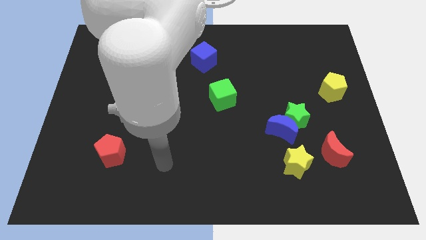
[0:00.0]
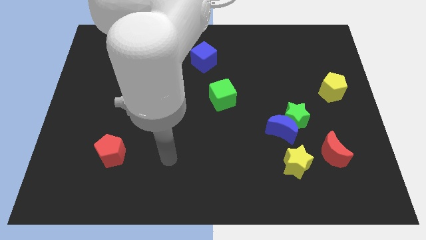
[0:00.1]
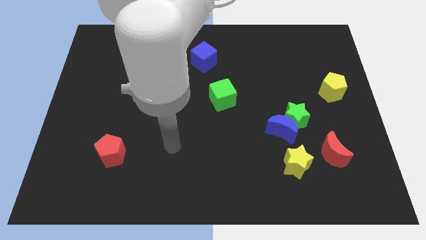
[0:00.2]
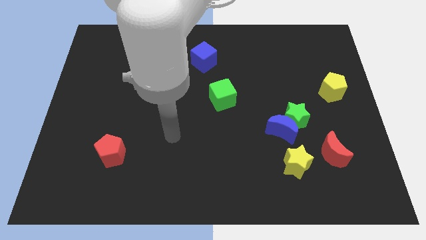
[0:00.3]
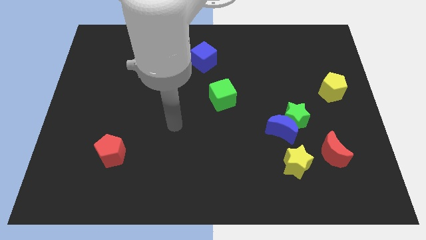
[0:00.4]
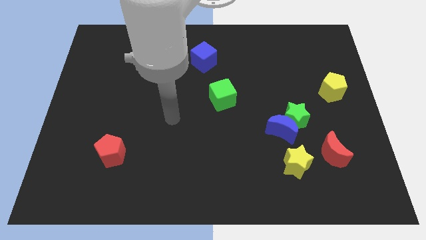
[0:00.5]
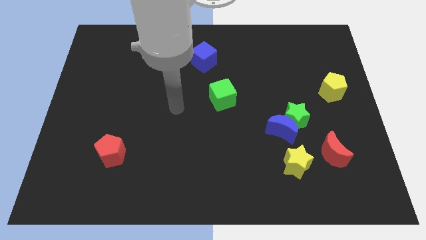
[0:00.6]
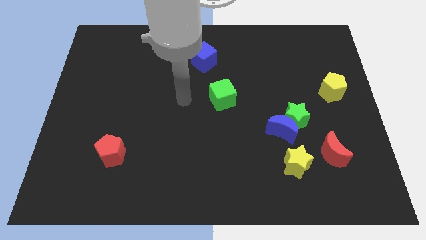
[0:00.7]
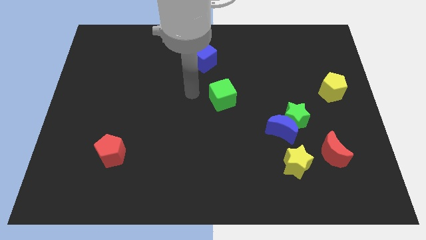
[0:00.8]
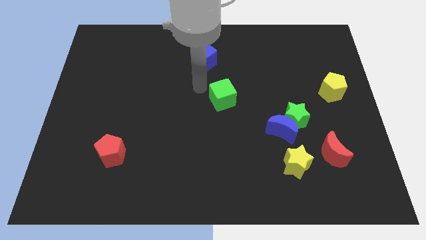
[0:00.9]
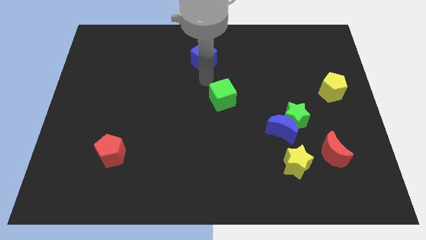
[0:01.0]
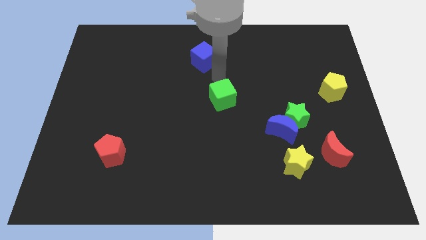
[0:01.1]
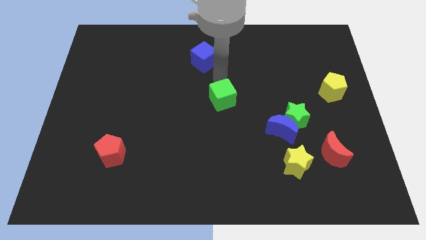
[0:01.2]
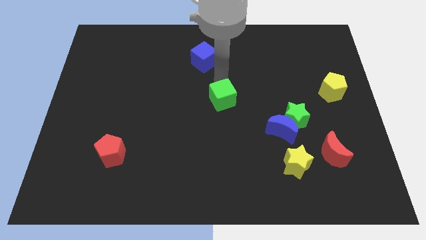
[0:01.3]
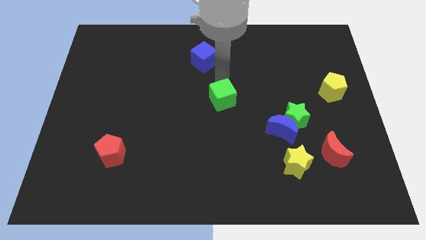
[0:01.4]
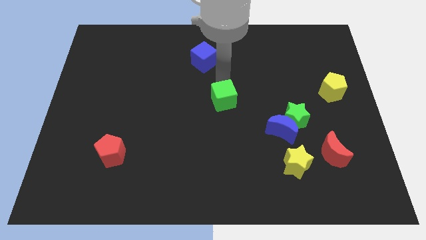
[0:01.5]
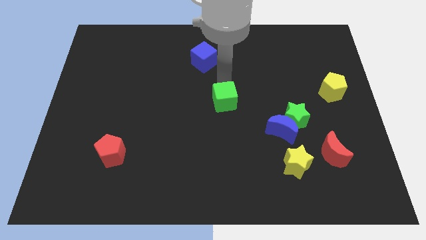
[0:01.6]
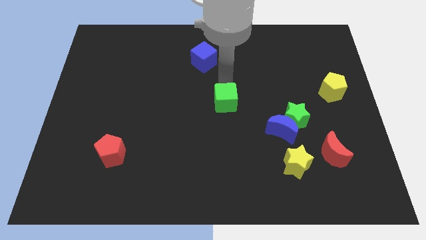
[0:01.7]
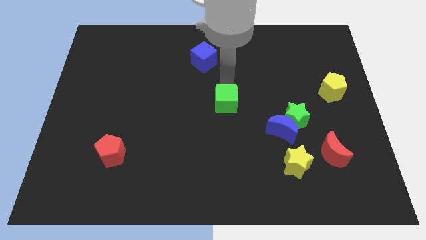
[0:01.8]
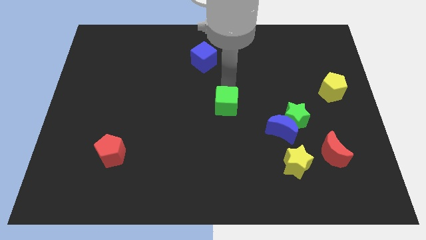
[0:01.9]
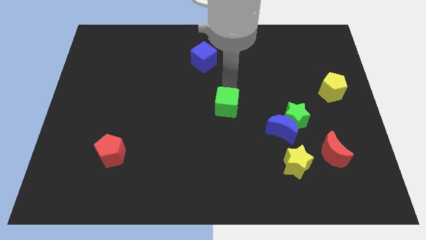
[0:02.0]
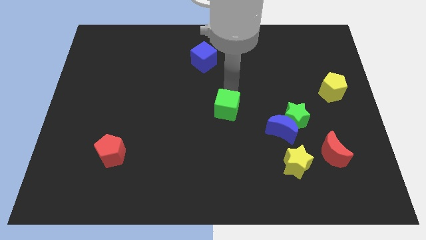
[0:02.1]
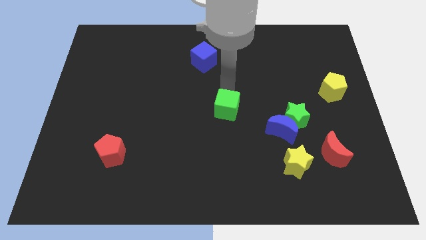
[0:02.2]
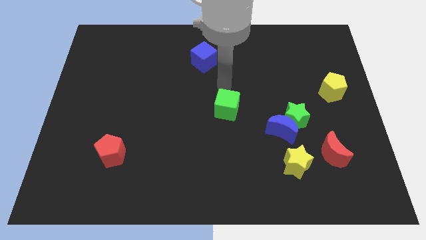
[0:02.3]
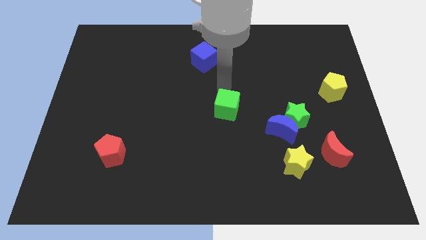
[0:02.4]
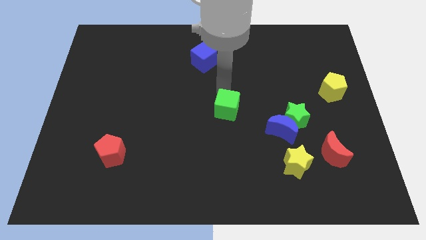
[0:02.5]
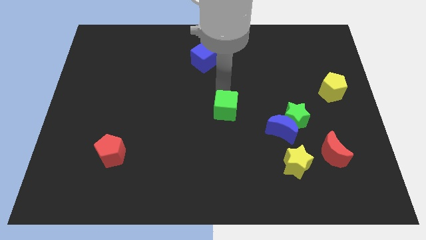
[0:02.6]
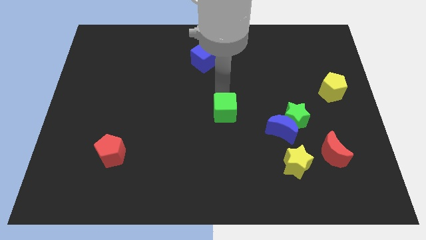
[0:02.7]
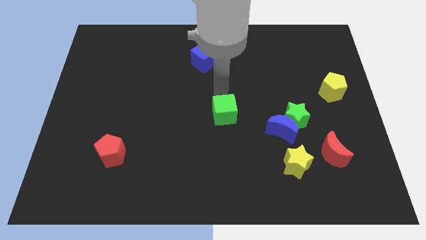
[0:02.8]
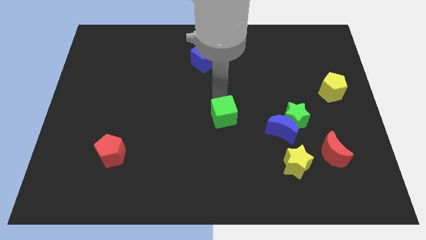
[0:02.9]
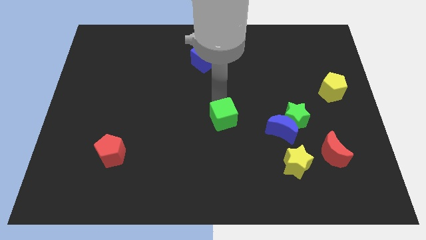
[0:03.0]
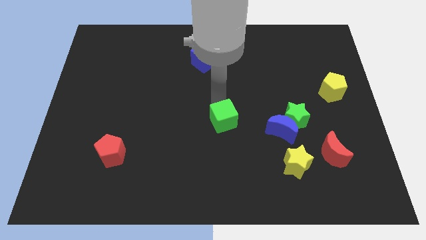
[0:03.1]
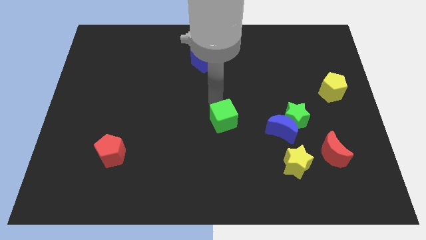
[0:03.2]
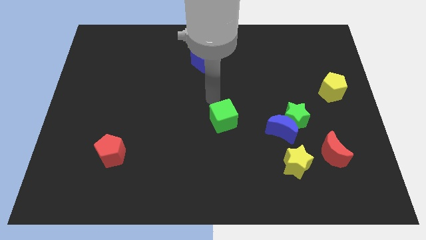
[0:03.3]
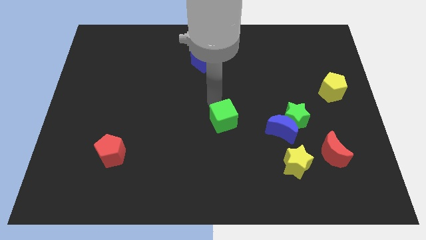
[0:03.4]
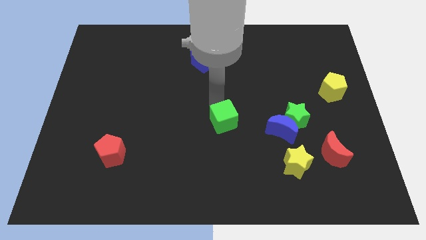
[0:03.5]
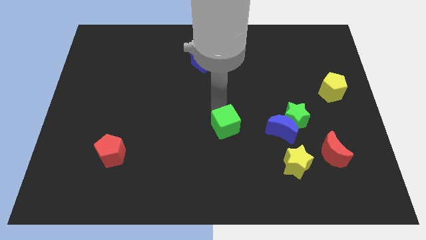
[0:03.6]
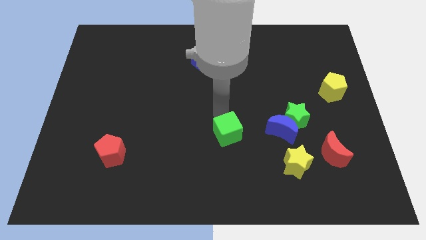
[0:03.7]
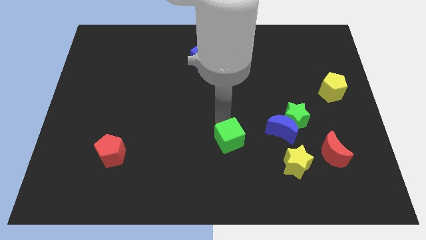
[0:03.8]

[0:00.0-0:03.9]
move the green cube downwards and right a bit

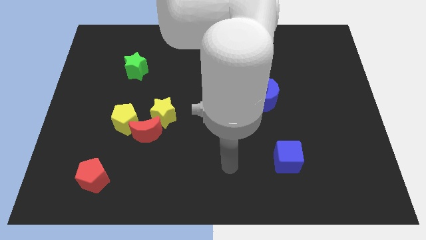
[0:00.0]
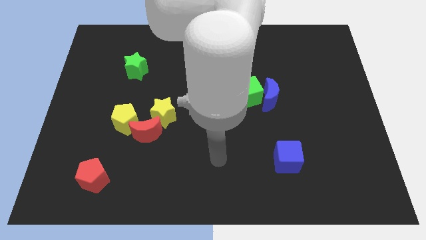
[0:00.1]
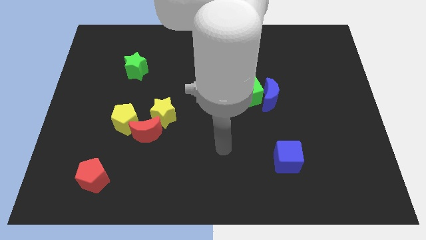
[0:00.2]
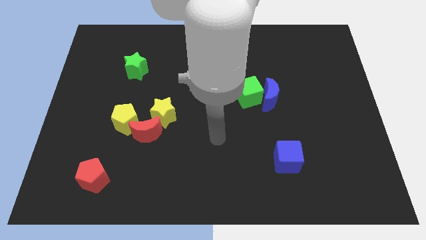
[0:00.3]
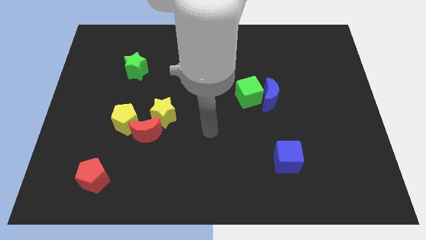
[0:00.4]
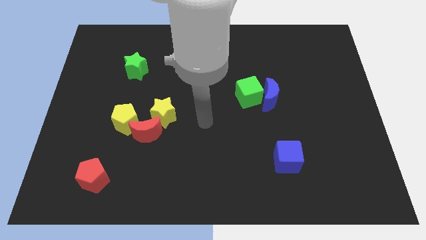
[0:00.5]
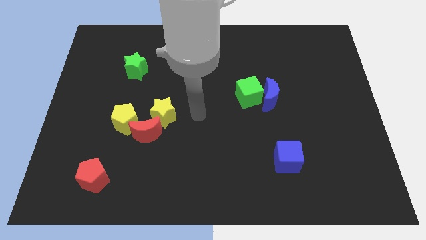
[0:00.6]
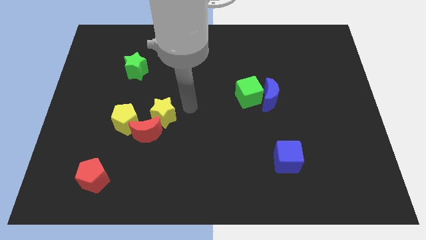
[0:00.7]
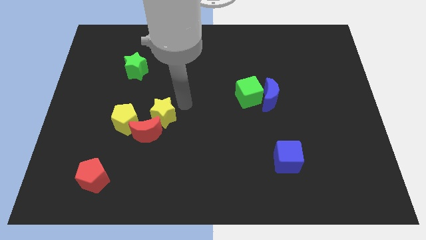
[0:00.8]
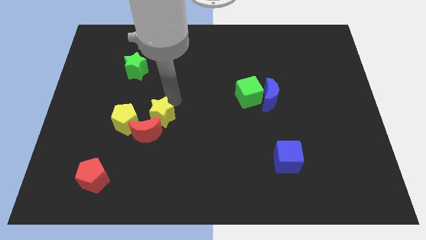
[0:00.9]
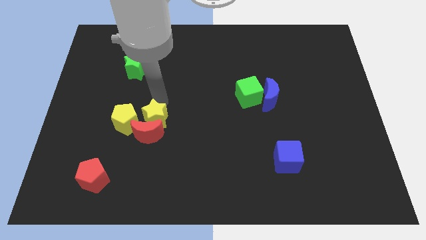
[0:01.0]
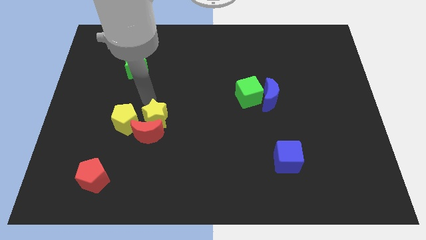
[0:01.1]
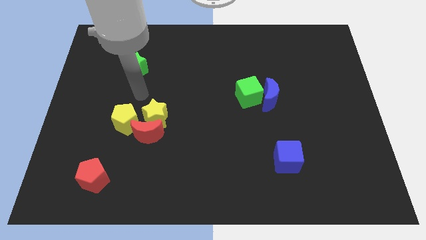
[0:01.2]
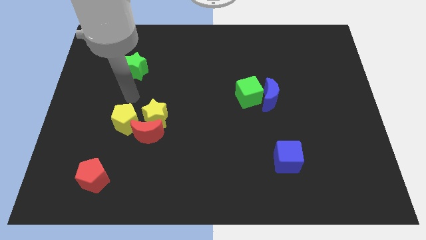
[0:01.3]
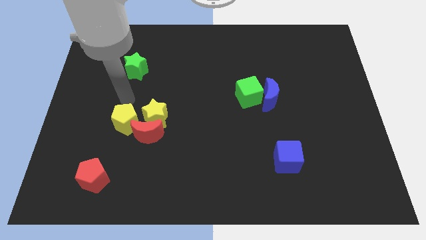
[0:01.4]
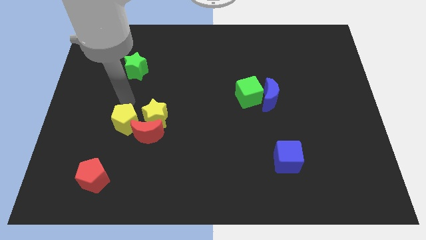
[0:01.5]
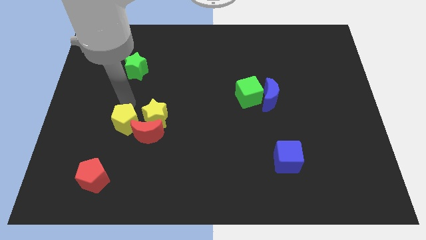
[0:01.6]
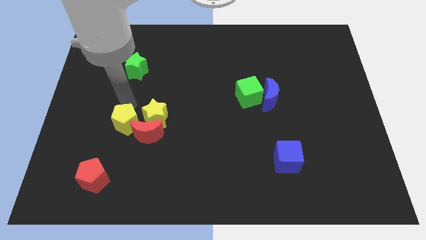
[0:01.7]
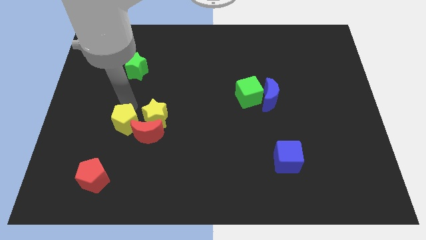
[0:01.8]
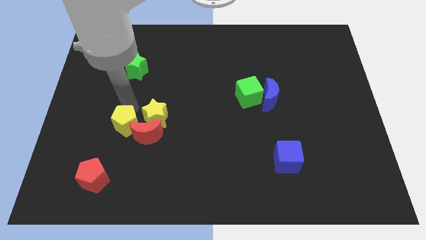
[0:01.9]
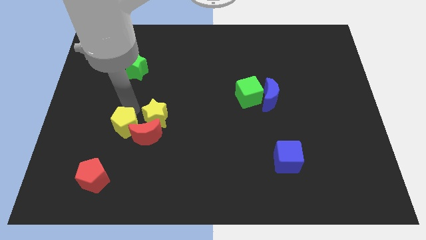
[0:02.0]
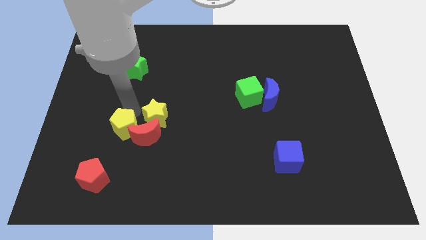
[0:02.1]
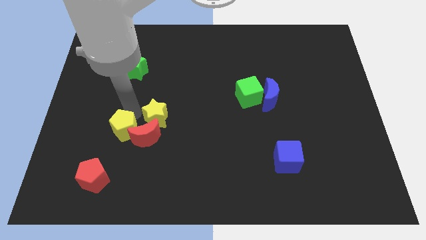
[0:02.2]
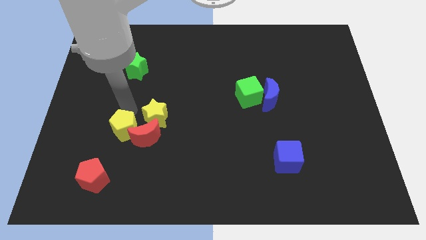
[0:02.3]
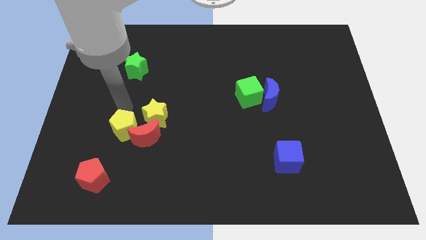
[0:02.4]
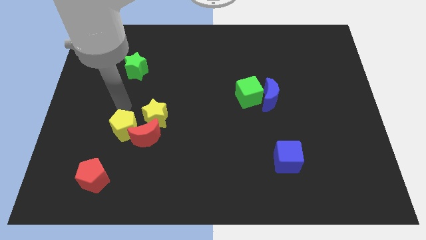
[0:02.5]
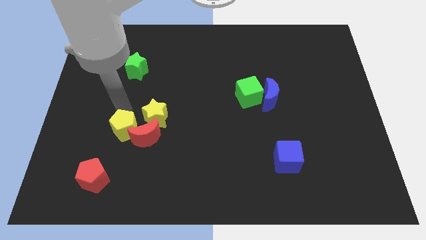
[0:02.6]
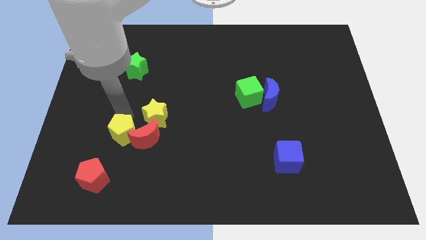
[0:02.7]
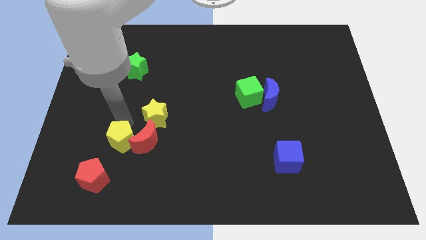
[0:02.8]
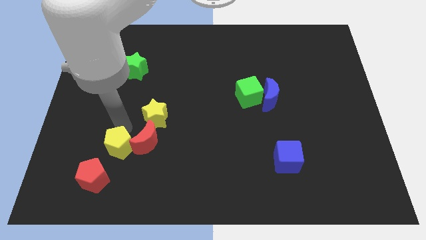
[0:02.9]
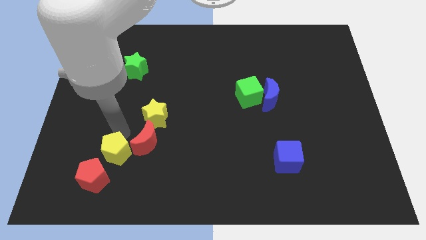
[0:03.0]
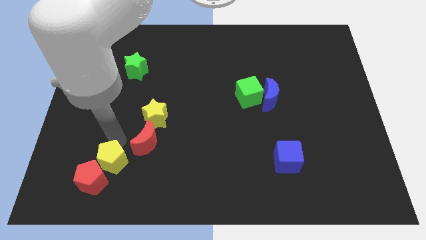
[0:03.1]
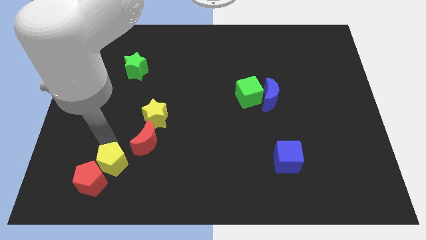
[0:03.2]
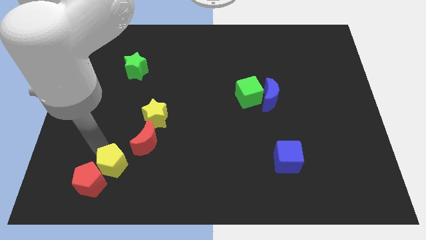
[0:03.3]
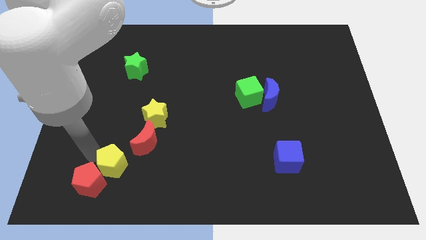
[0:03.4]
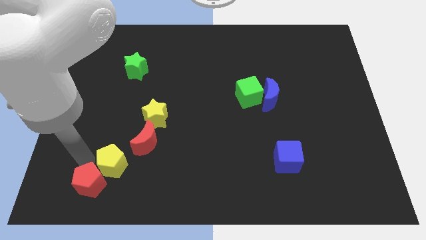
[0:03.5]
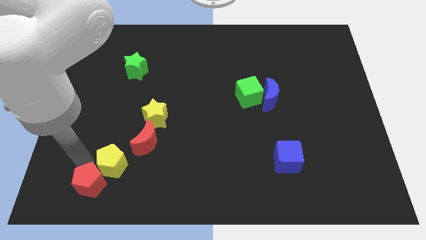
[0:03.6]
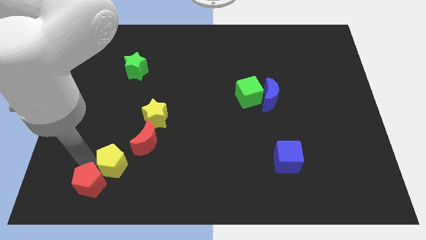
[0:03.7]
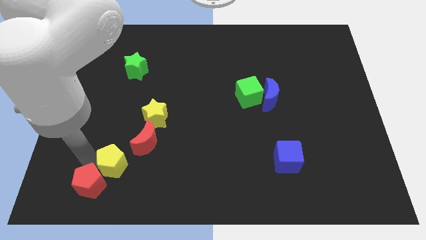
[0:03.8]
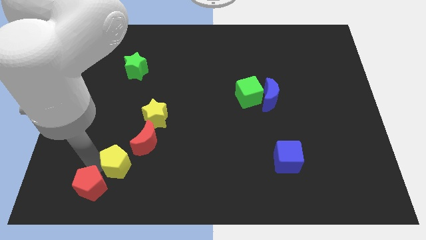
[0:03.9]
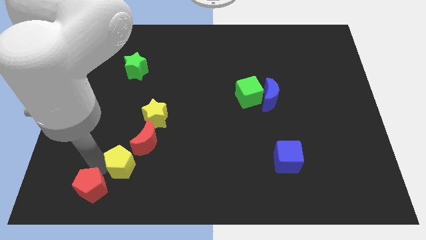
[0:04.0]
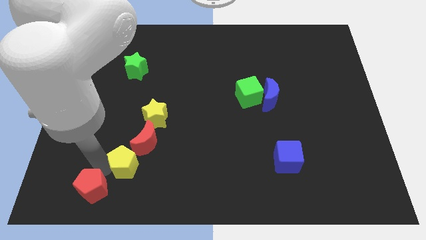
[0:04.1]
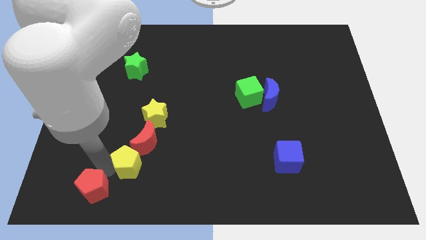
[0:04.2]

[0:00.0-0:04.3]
slide the yellow pentagon down and then right a little bit
